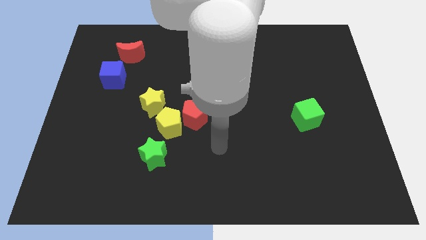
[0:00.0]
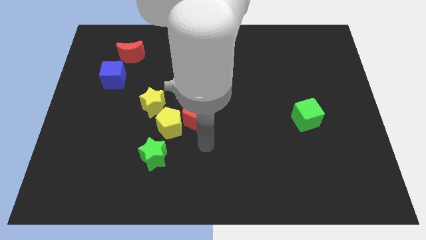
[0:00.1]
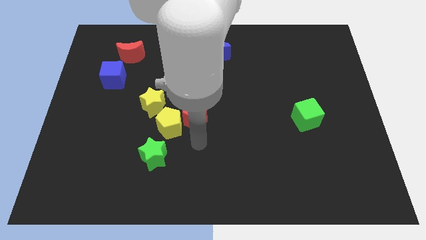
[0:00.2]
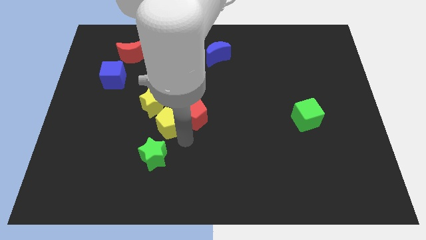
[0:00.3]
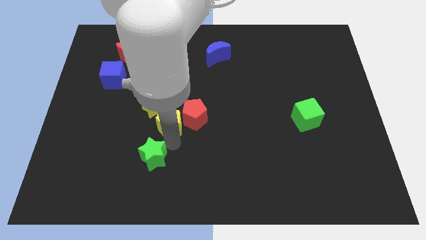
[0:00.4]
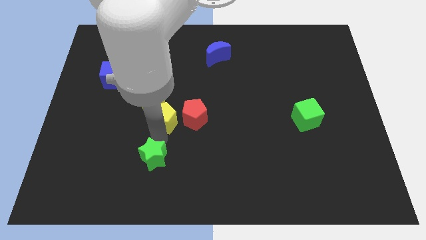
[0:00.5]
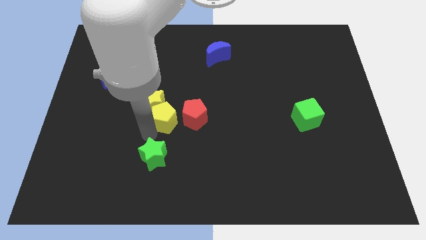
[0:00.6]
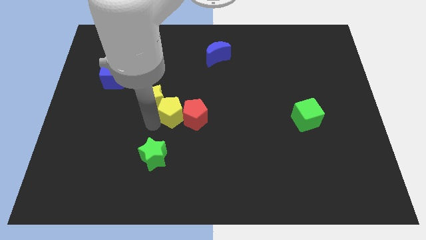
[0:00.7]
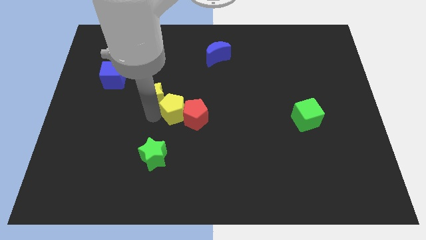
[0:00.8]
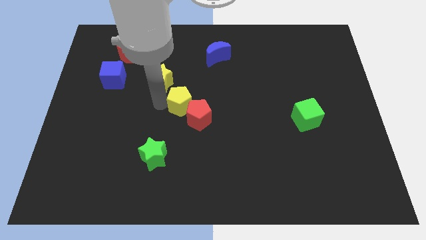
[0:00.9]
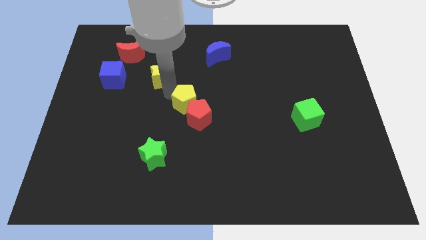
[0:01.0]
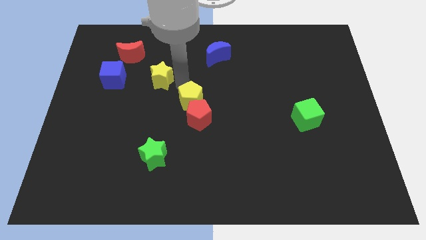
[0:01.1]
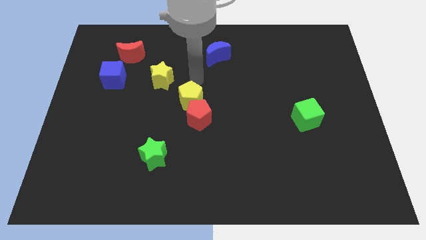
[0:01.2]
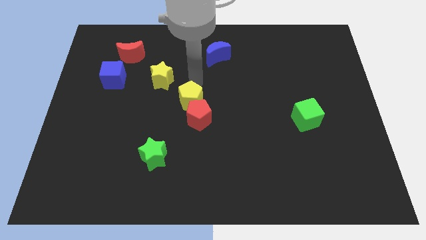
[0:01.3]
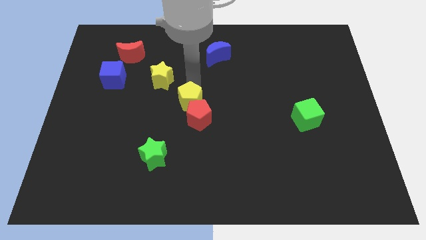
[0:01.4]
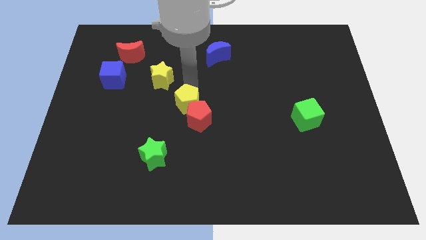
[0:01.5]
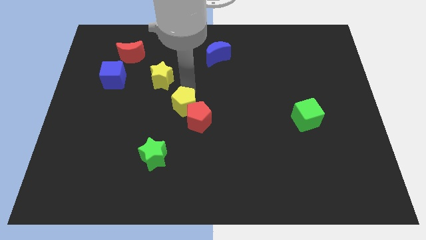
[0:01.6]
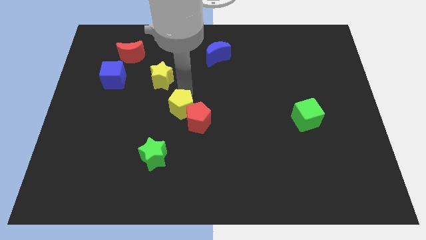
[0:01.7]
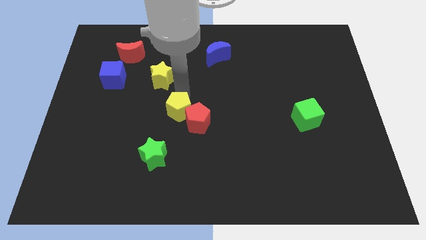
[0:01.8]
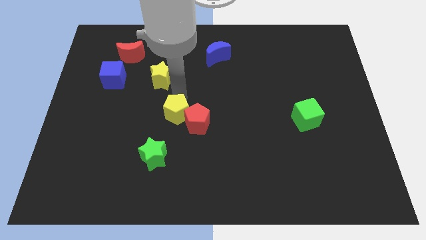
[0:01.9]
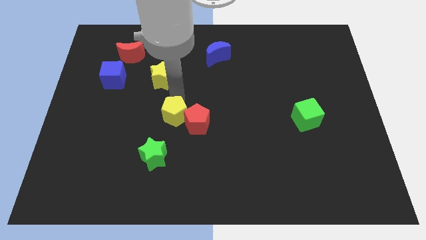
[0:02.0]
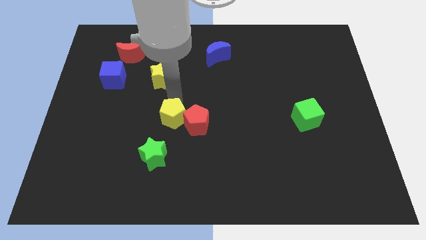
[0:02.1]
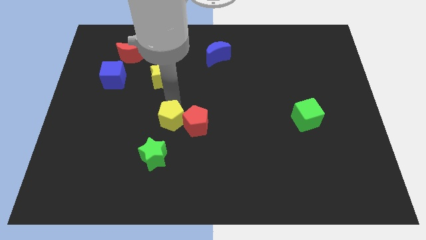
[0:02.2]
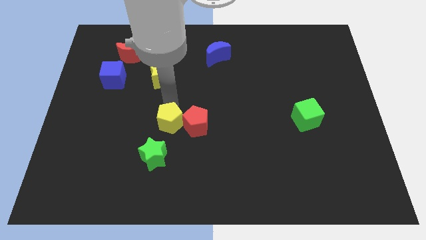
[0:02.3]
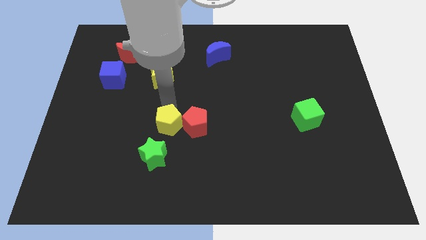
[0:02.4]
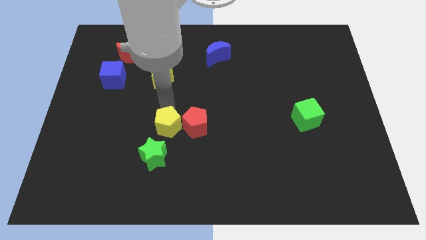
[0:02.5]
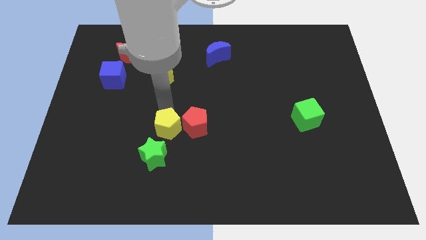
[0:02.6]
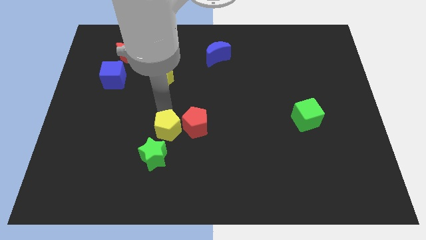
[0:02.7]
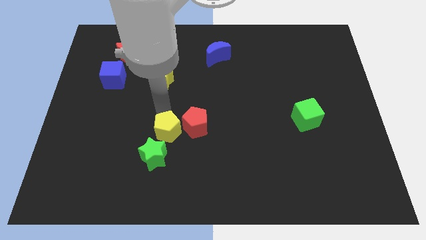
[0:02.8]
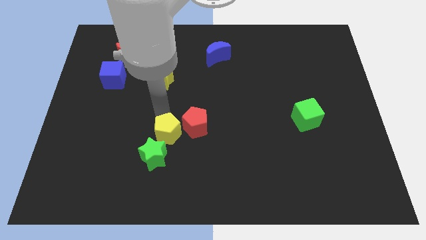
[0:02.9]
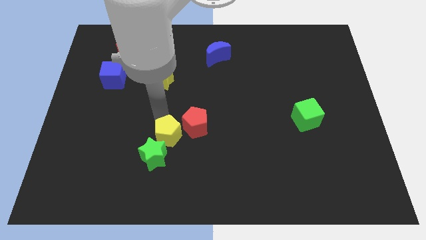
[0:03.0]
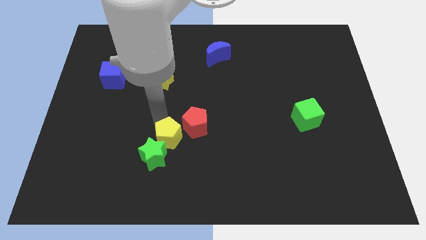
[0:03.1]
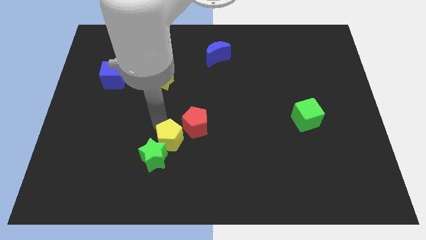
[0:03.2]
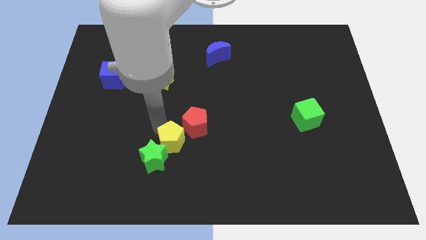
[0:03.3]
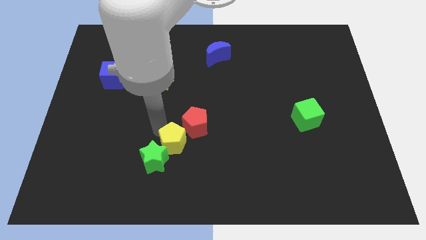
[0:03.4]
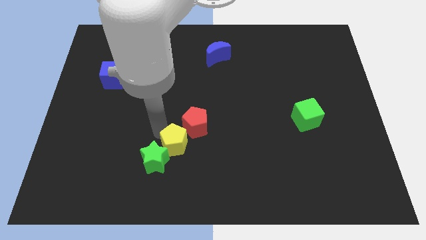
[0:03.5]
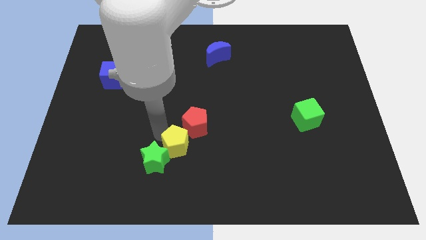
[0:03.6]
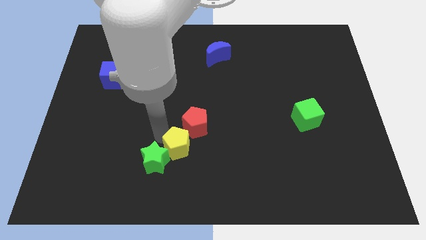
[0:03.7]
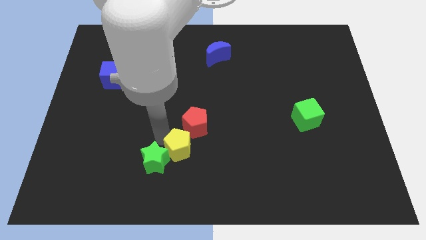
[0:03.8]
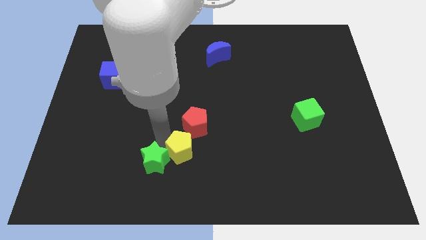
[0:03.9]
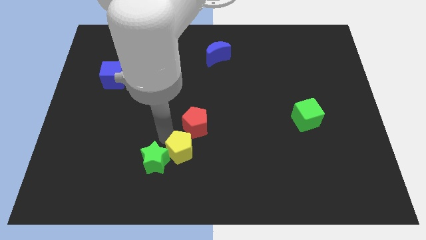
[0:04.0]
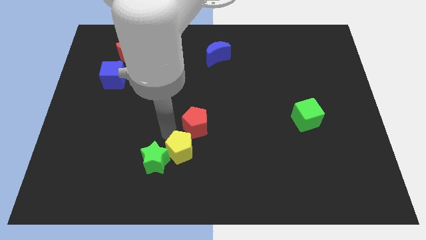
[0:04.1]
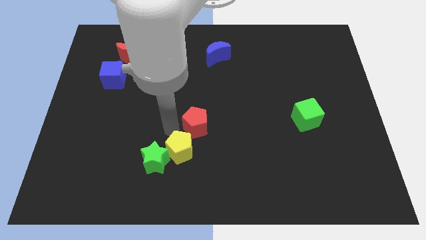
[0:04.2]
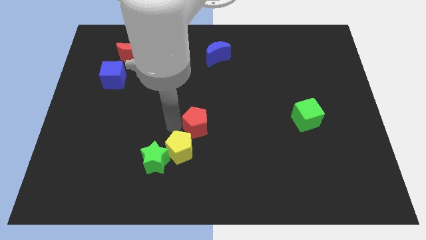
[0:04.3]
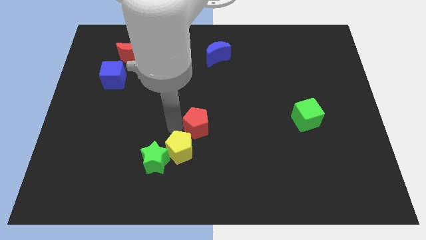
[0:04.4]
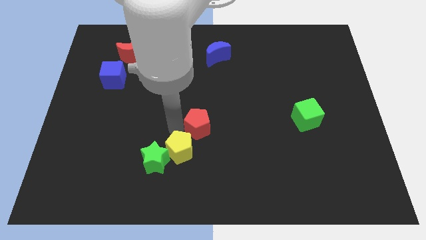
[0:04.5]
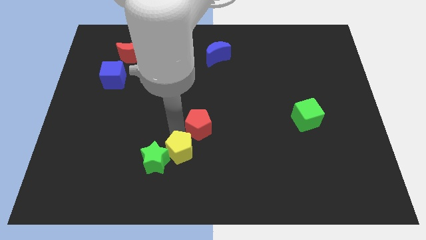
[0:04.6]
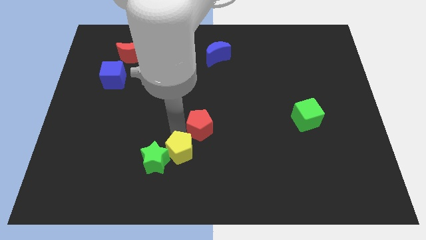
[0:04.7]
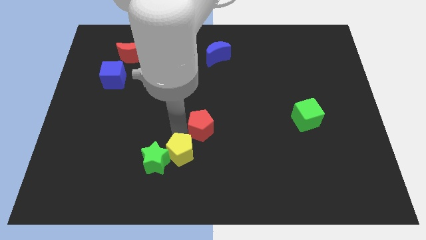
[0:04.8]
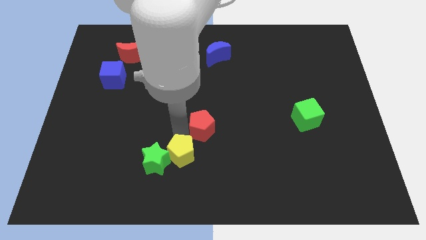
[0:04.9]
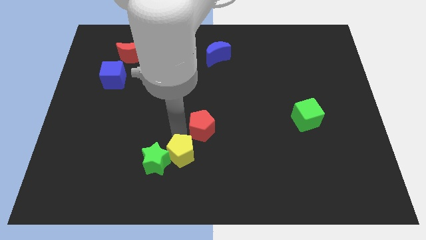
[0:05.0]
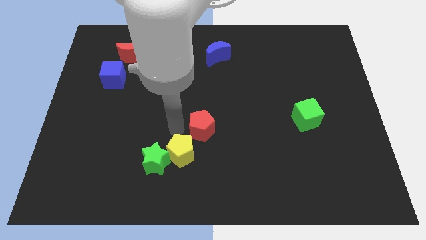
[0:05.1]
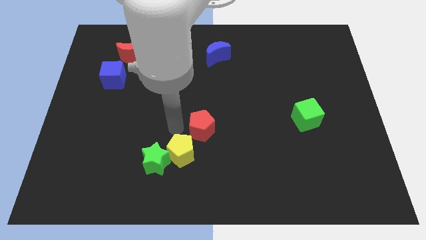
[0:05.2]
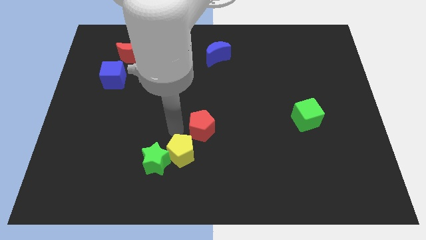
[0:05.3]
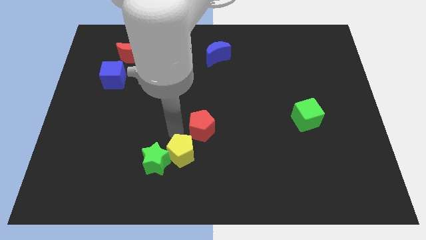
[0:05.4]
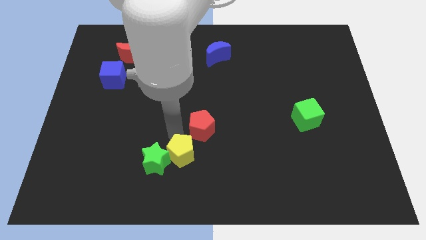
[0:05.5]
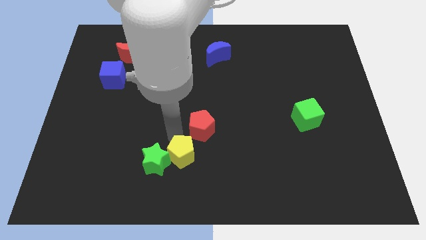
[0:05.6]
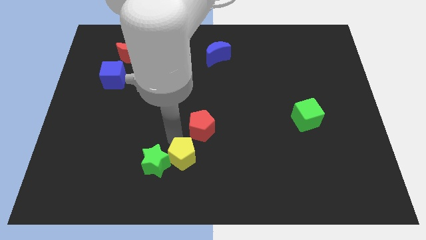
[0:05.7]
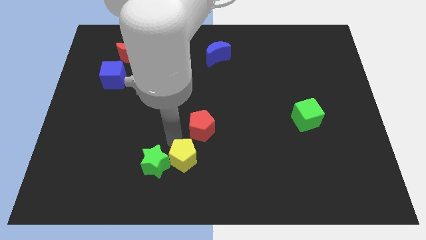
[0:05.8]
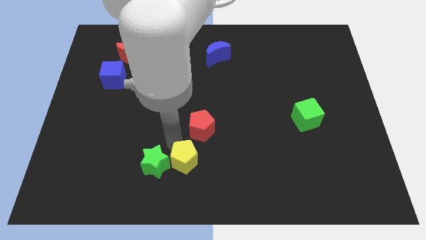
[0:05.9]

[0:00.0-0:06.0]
separate the yellow pentagon from the red pentagon, yellow star, and green star

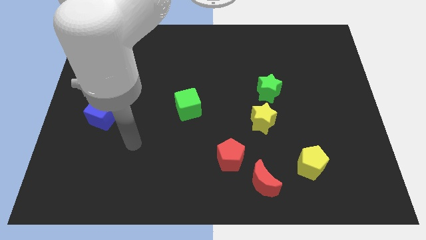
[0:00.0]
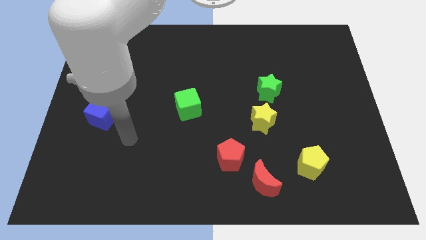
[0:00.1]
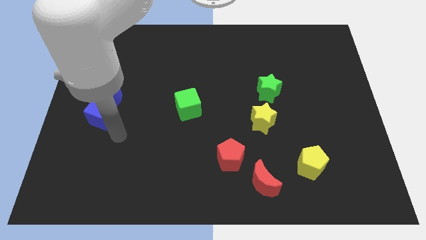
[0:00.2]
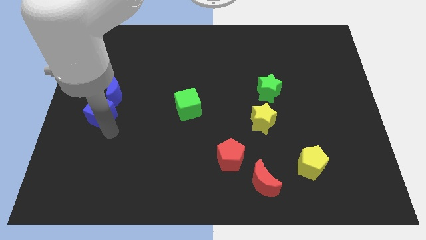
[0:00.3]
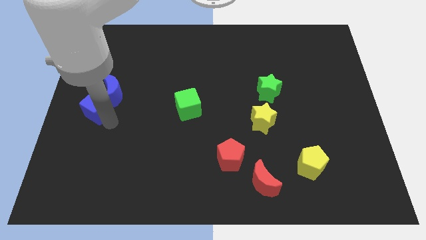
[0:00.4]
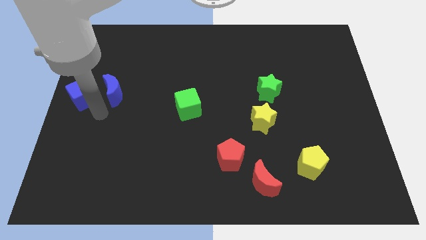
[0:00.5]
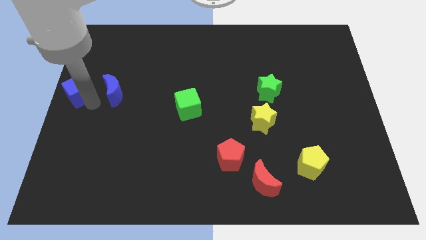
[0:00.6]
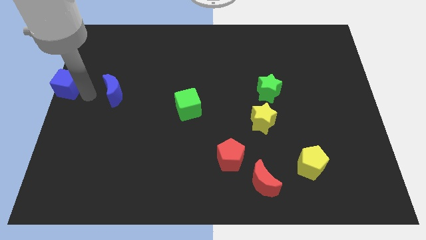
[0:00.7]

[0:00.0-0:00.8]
separate the blue moon from the blue cube

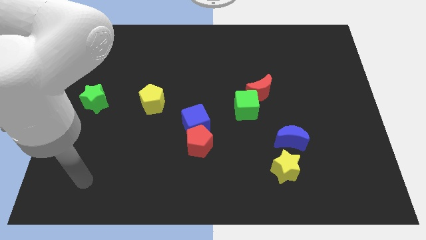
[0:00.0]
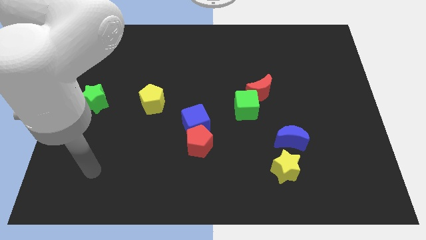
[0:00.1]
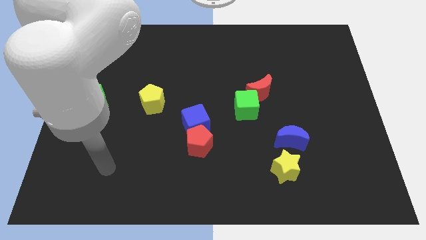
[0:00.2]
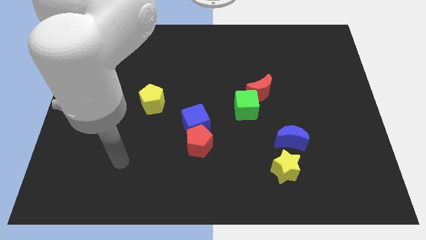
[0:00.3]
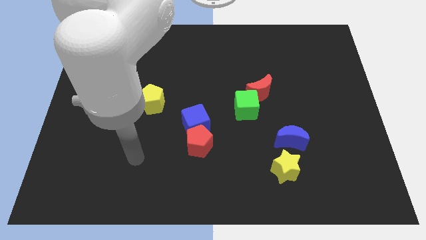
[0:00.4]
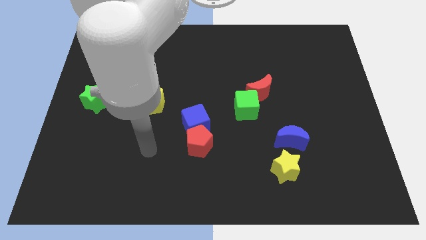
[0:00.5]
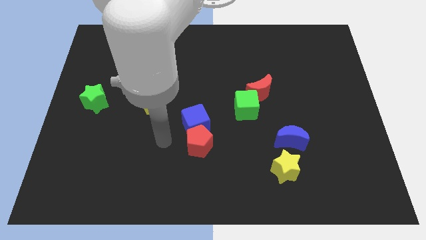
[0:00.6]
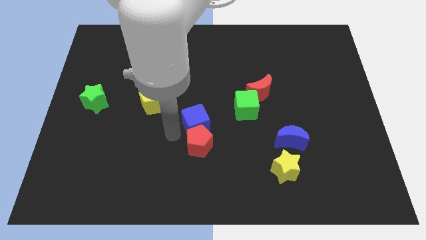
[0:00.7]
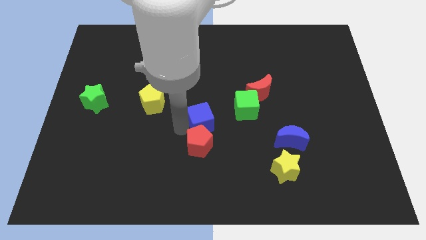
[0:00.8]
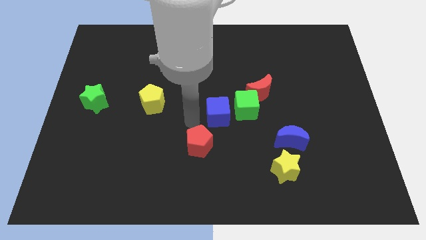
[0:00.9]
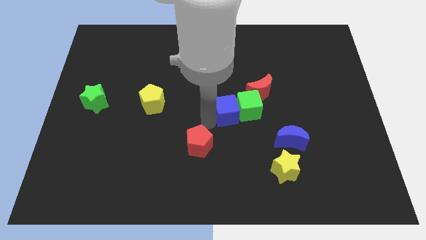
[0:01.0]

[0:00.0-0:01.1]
separate the red pentagon from the blue cube

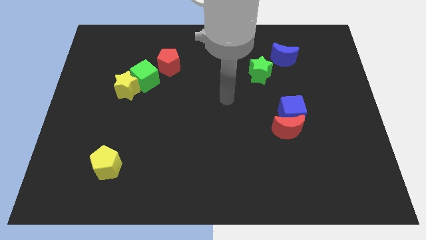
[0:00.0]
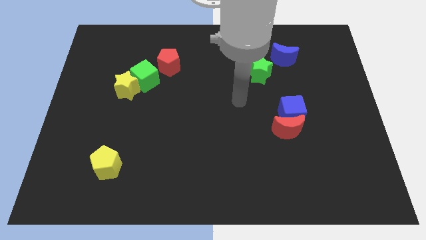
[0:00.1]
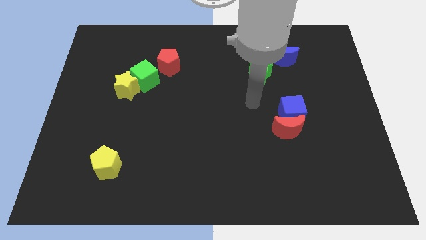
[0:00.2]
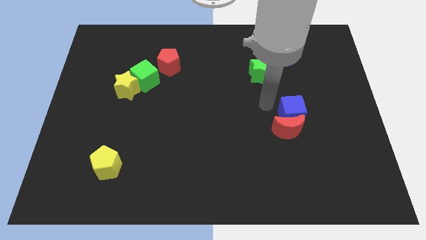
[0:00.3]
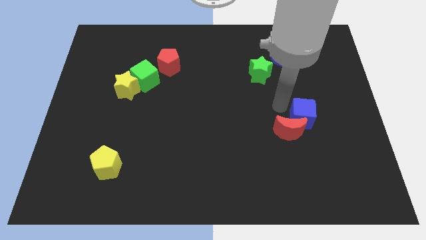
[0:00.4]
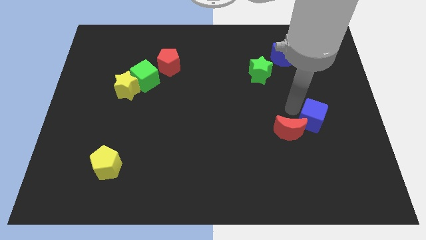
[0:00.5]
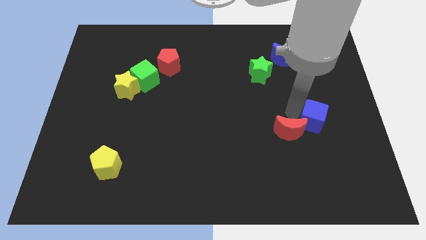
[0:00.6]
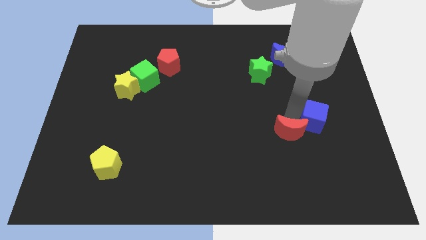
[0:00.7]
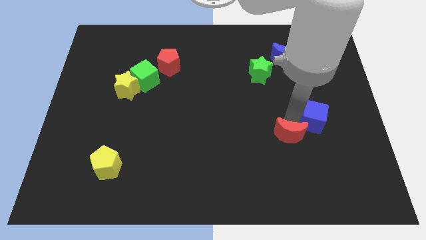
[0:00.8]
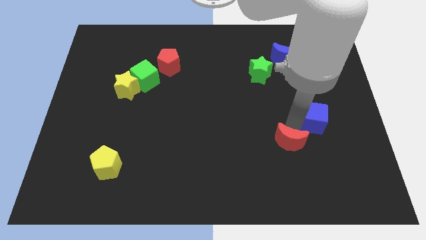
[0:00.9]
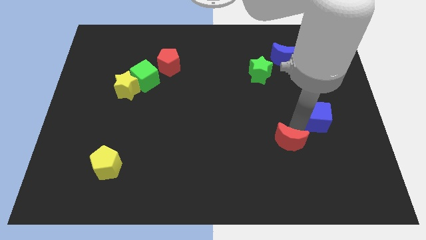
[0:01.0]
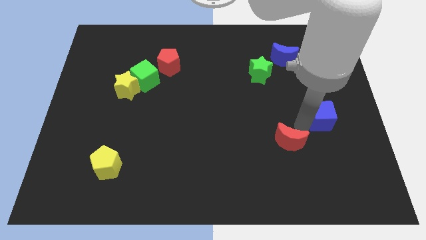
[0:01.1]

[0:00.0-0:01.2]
pull the red moon apart from the blue cube

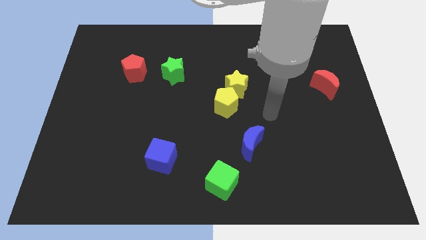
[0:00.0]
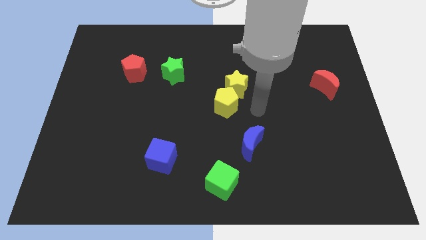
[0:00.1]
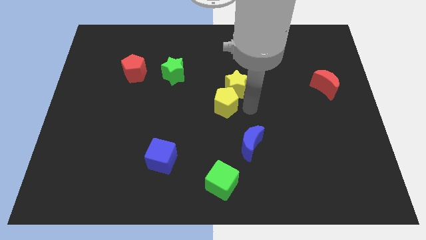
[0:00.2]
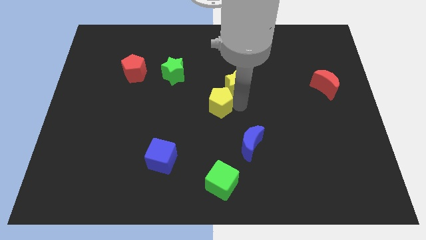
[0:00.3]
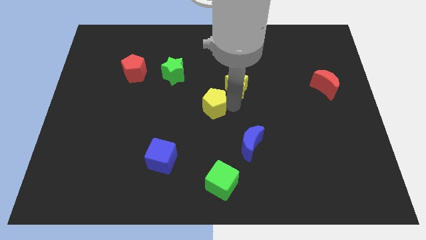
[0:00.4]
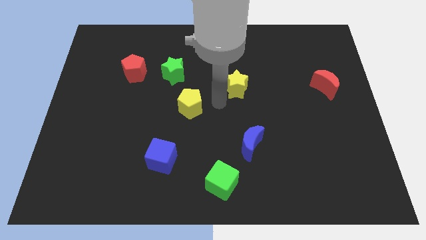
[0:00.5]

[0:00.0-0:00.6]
pull the yellow star apart from the yellow pentagon
